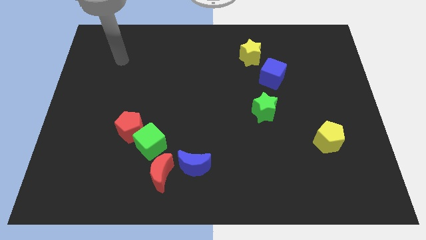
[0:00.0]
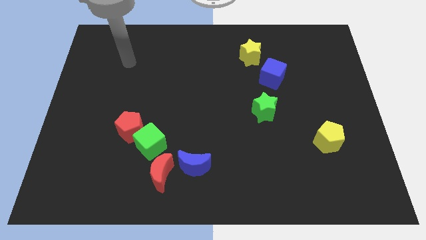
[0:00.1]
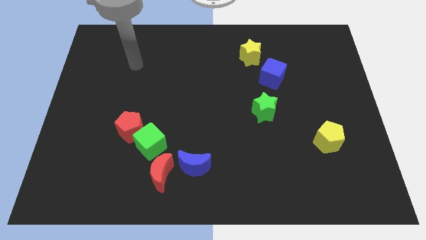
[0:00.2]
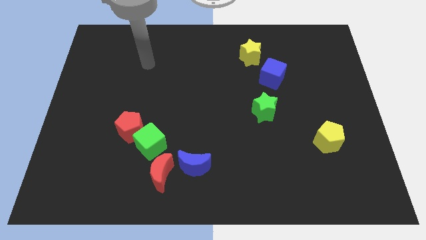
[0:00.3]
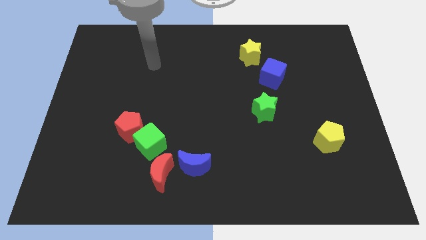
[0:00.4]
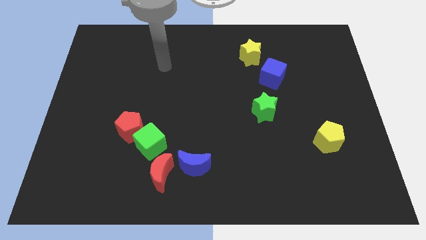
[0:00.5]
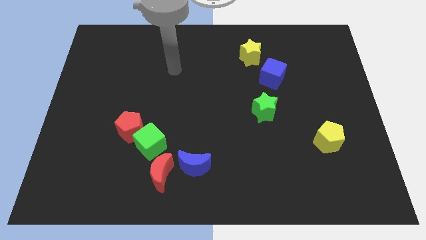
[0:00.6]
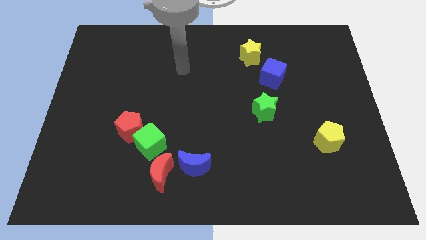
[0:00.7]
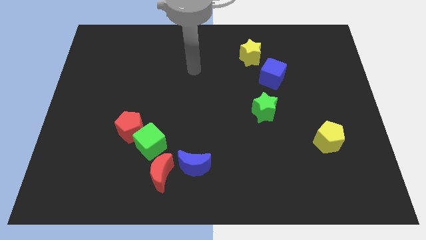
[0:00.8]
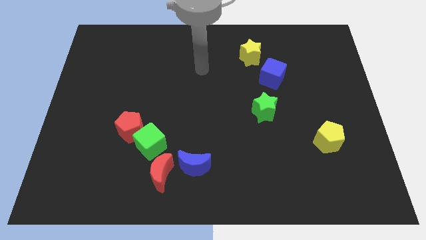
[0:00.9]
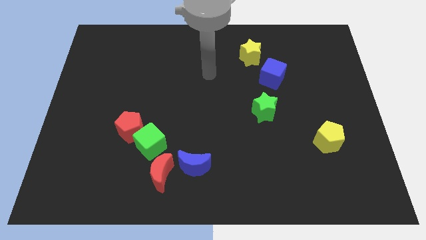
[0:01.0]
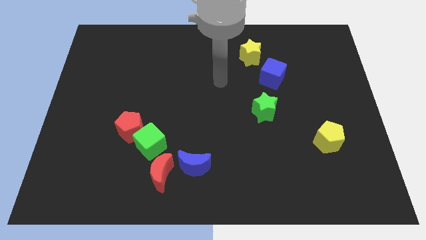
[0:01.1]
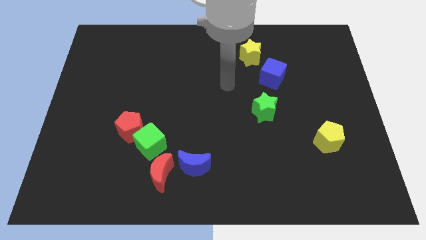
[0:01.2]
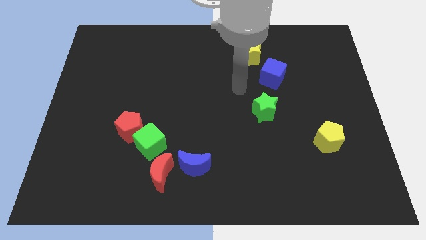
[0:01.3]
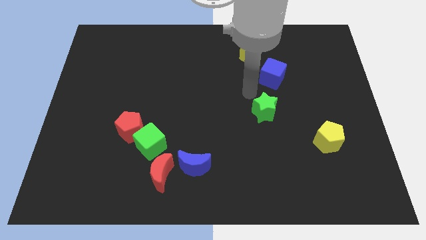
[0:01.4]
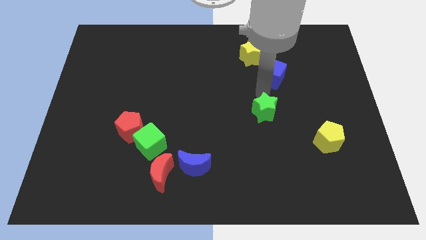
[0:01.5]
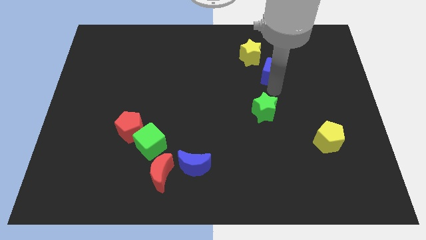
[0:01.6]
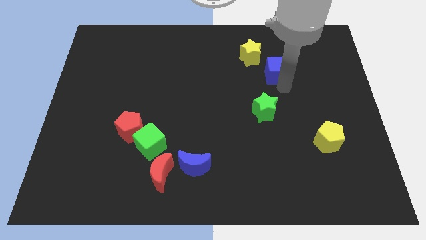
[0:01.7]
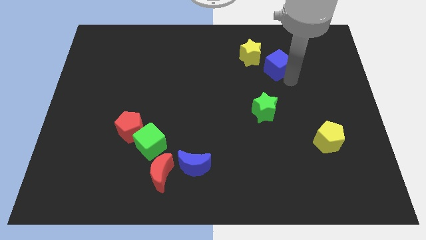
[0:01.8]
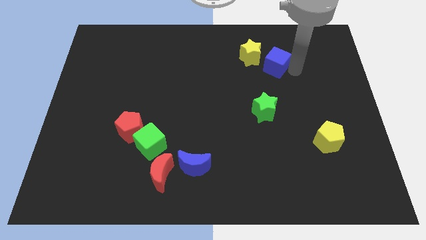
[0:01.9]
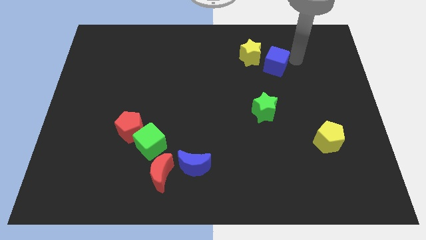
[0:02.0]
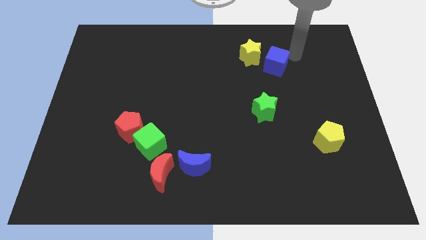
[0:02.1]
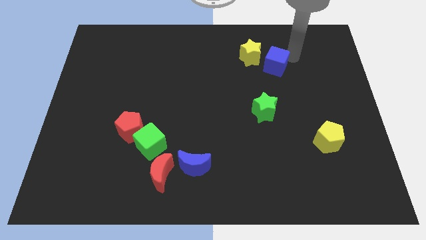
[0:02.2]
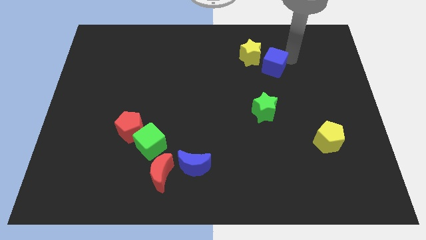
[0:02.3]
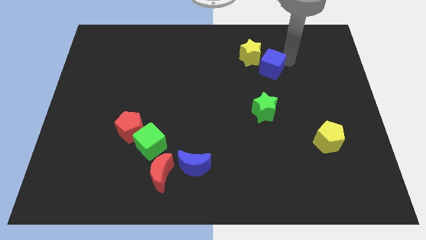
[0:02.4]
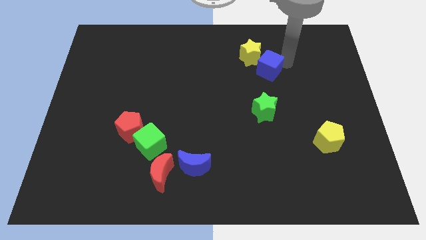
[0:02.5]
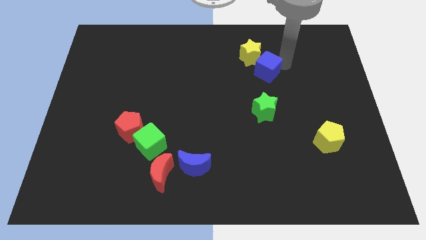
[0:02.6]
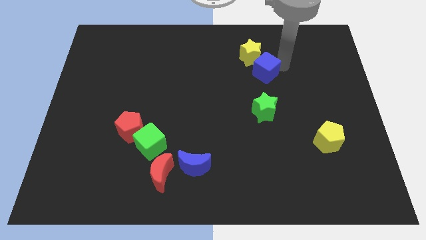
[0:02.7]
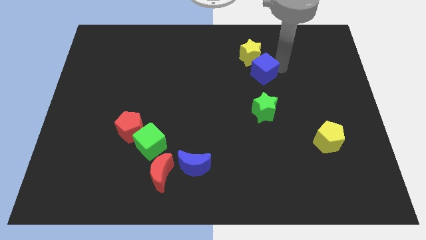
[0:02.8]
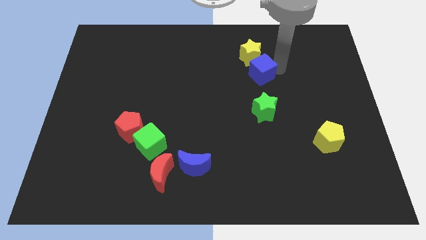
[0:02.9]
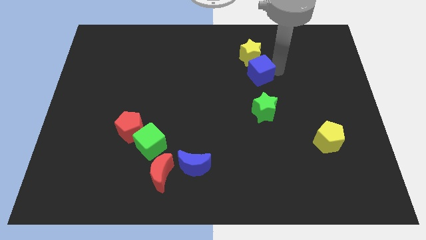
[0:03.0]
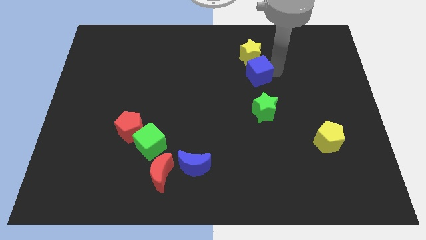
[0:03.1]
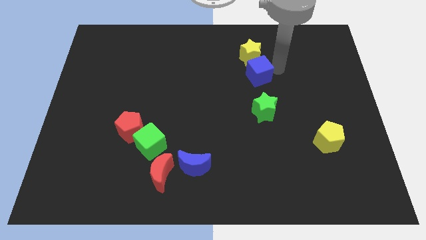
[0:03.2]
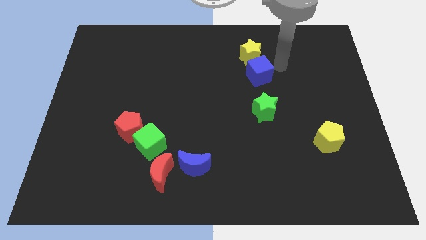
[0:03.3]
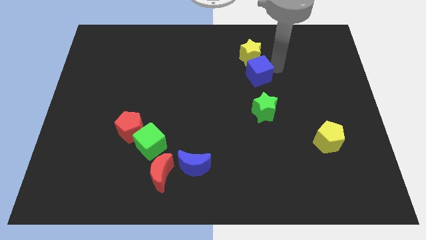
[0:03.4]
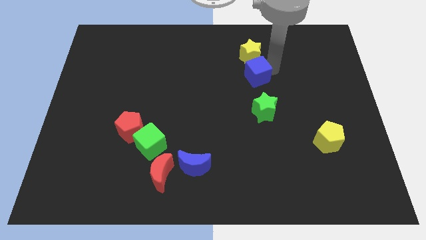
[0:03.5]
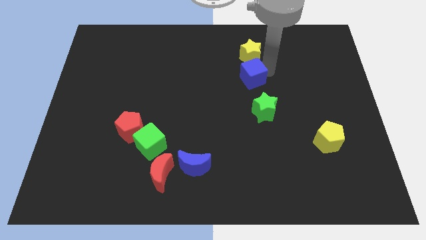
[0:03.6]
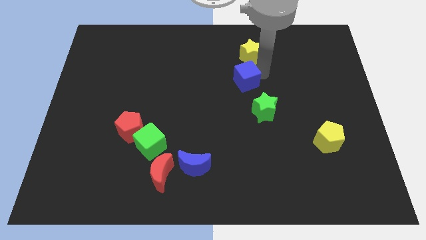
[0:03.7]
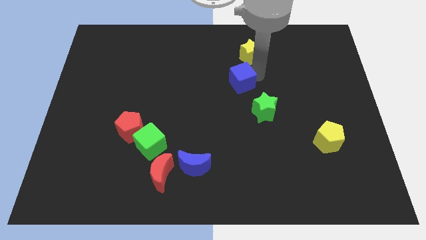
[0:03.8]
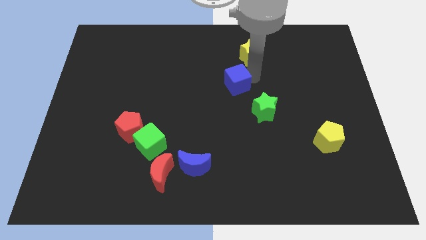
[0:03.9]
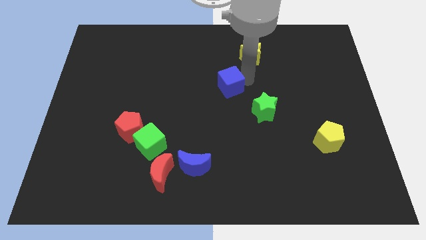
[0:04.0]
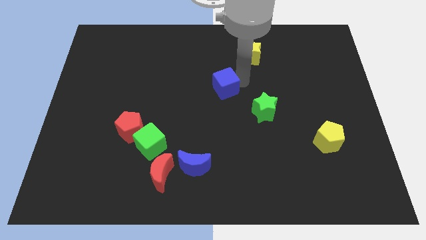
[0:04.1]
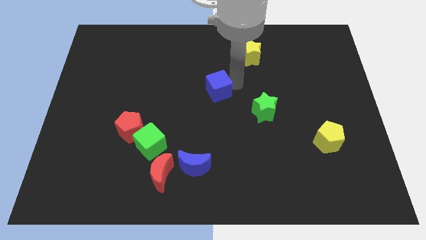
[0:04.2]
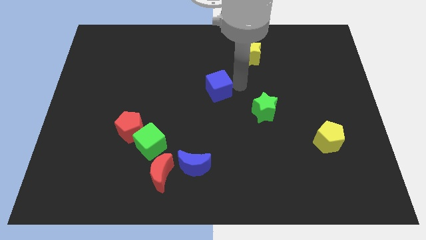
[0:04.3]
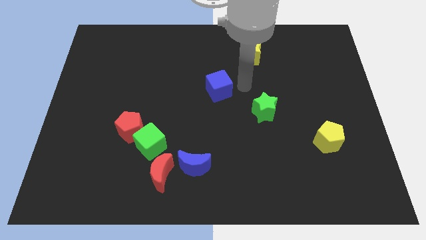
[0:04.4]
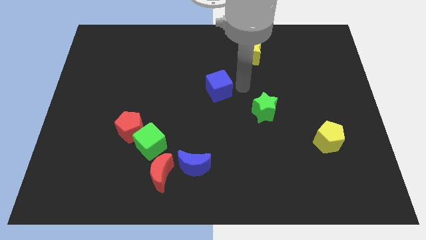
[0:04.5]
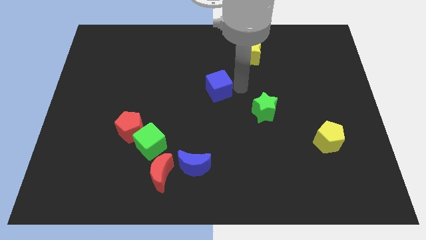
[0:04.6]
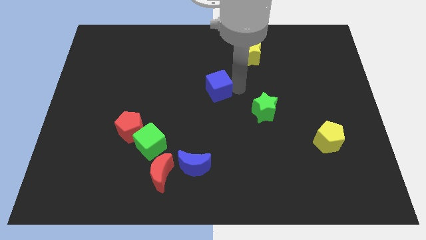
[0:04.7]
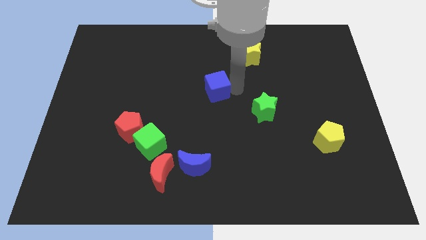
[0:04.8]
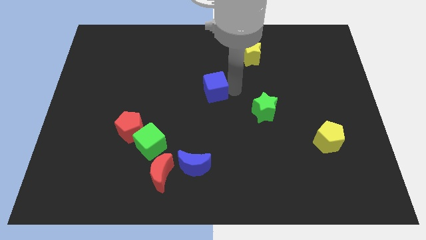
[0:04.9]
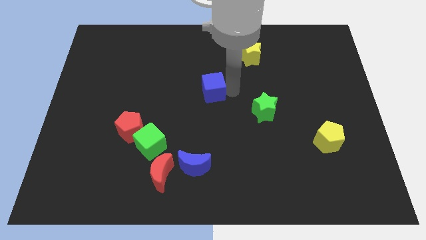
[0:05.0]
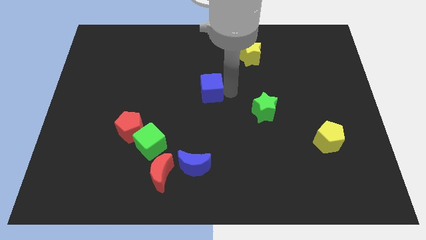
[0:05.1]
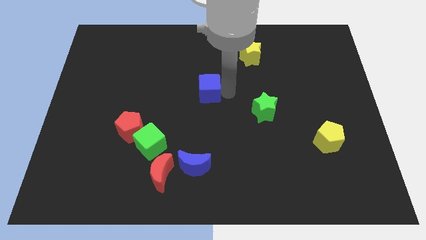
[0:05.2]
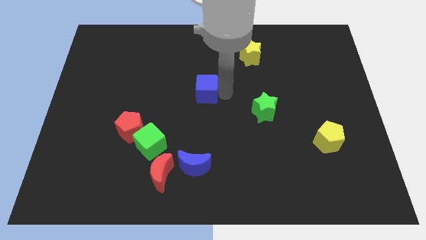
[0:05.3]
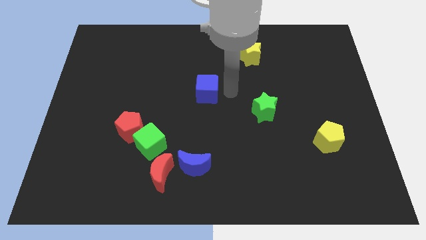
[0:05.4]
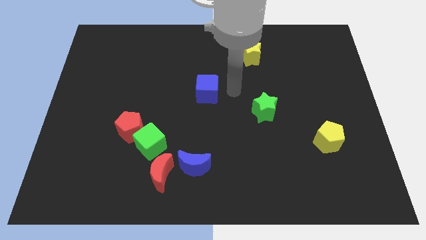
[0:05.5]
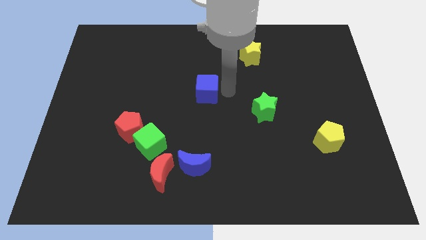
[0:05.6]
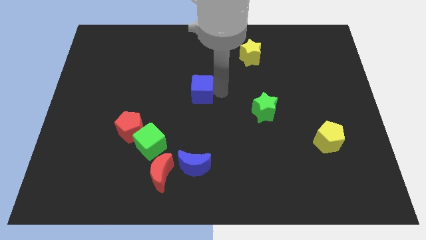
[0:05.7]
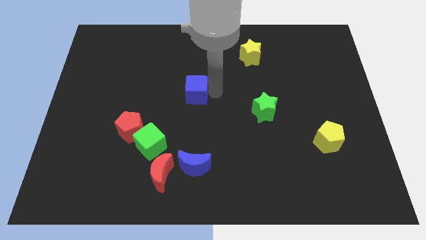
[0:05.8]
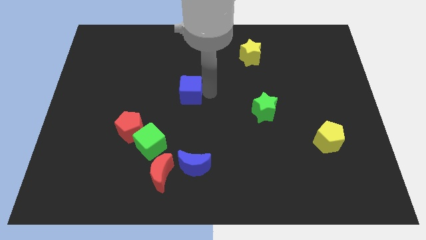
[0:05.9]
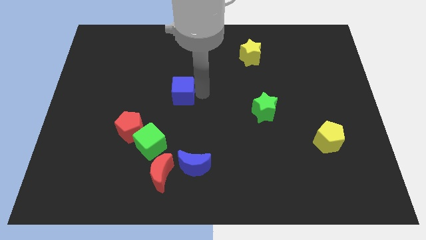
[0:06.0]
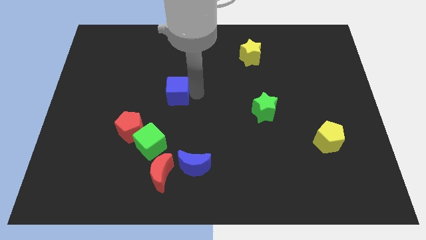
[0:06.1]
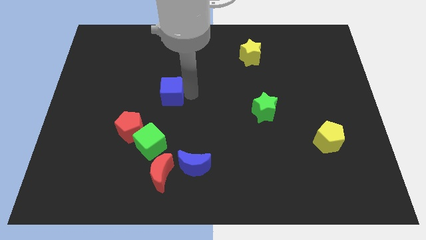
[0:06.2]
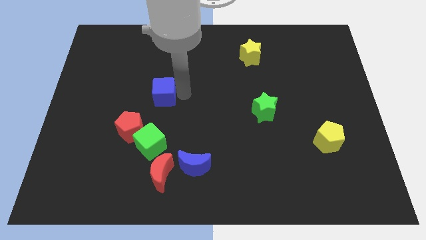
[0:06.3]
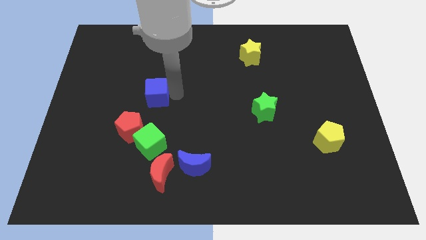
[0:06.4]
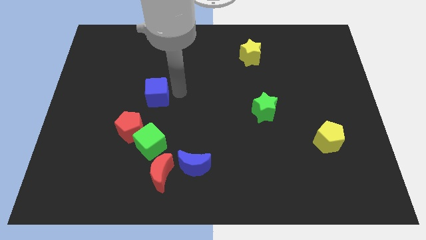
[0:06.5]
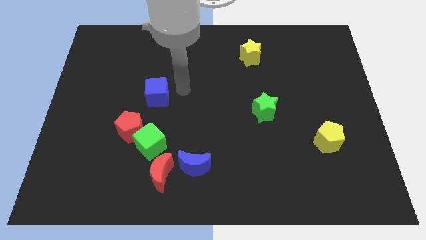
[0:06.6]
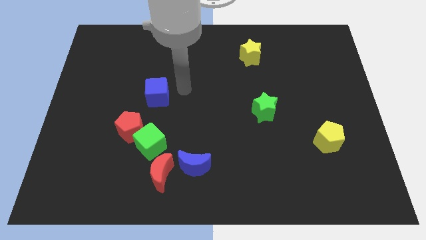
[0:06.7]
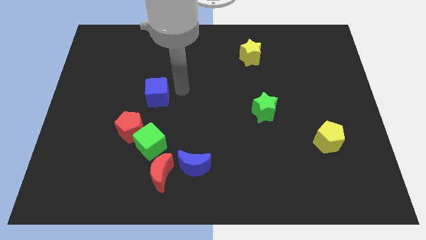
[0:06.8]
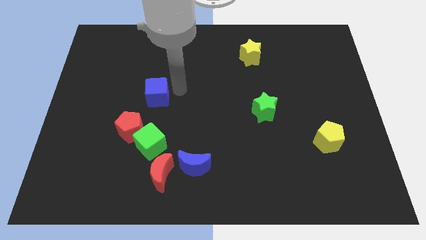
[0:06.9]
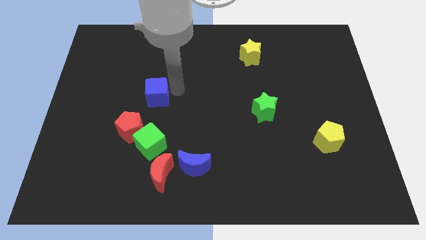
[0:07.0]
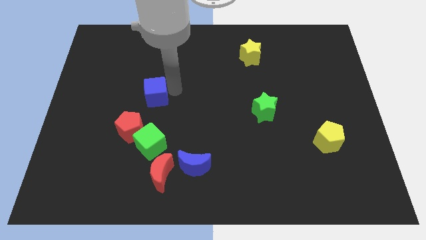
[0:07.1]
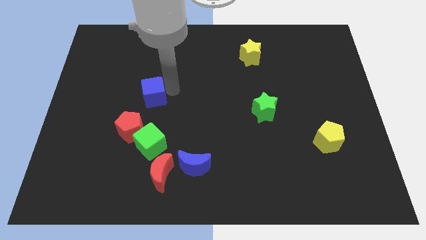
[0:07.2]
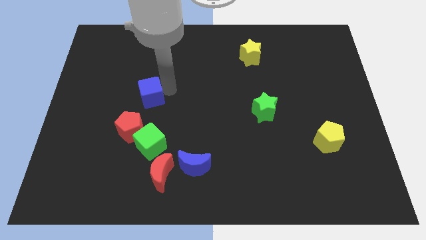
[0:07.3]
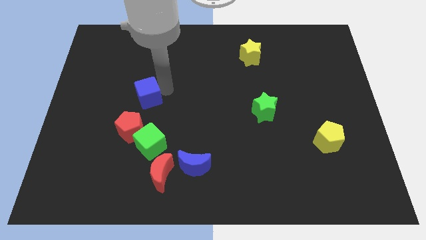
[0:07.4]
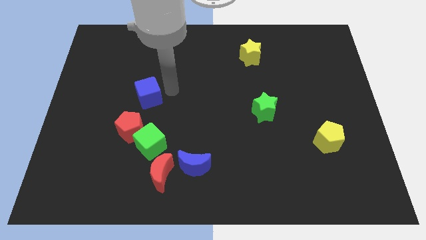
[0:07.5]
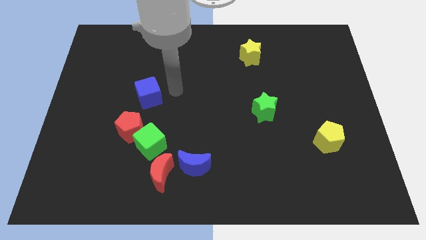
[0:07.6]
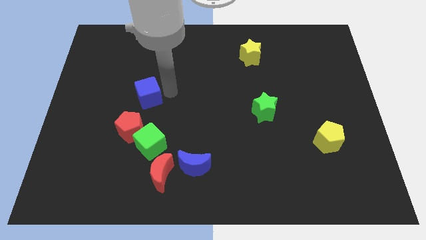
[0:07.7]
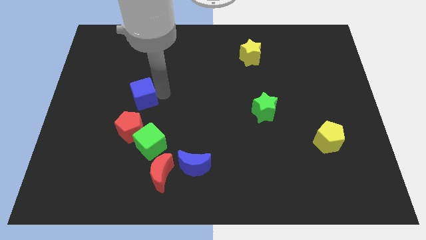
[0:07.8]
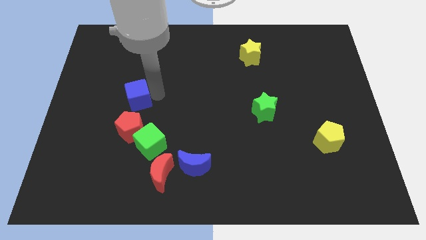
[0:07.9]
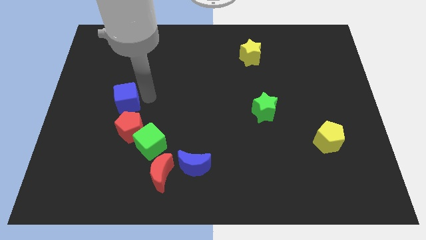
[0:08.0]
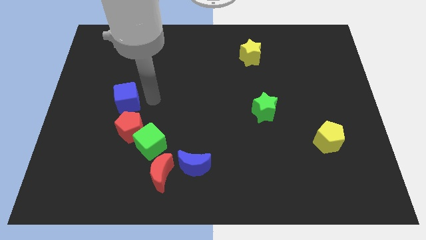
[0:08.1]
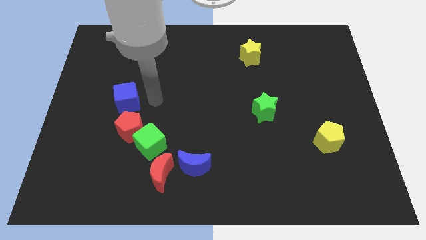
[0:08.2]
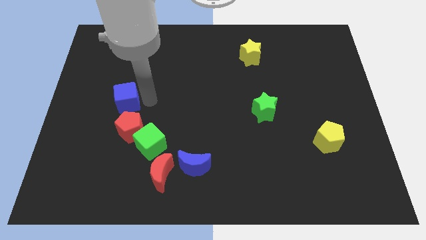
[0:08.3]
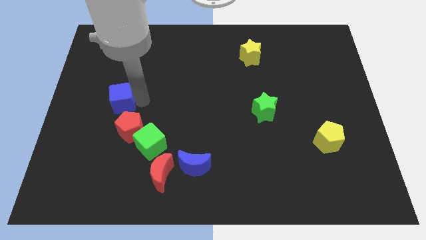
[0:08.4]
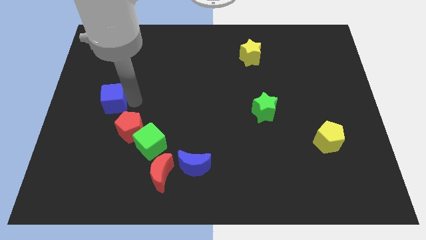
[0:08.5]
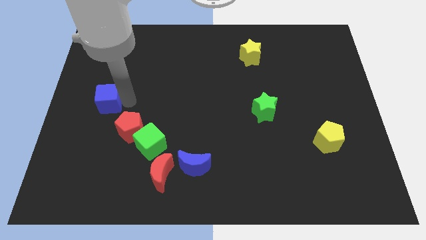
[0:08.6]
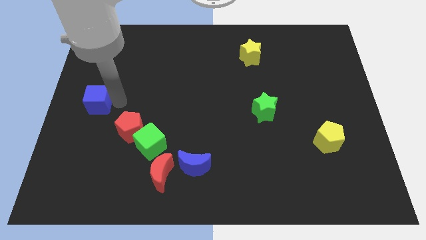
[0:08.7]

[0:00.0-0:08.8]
move the blue cube to the left side of the board
